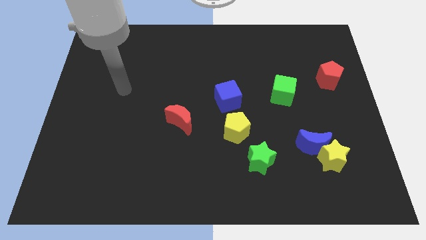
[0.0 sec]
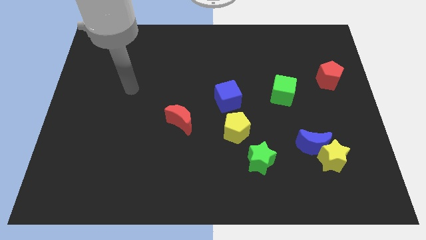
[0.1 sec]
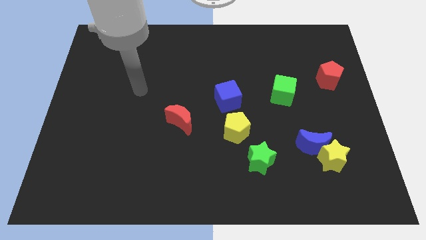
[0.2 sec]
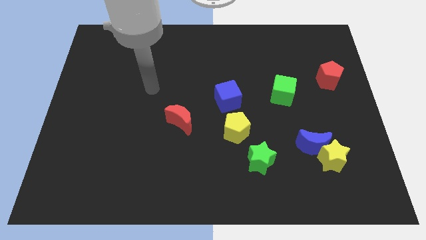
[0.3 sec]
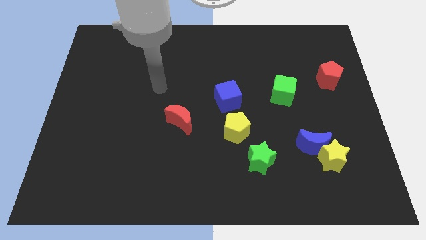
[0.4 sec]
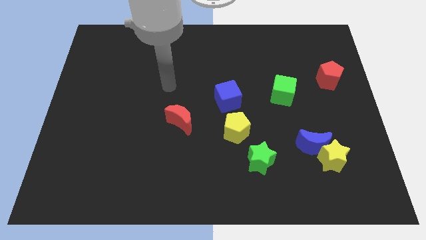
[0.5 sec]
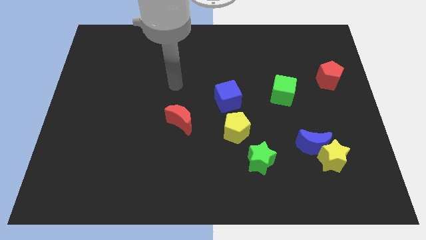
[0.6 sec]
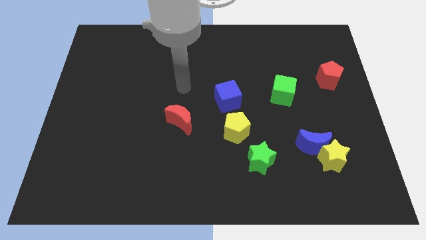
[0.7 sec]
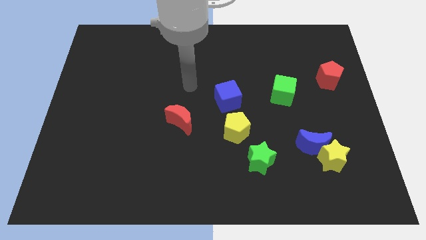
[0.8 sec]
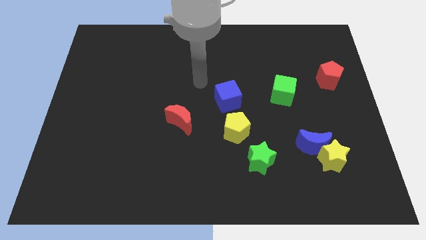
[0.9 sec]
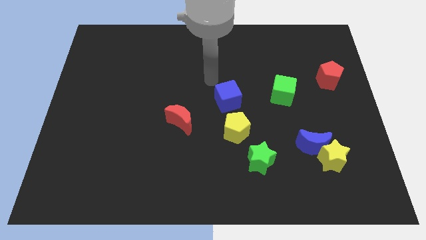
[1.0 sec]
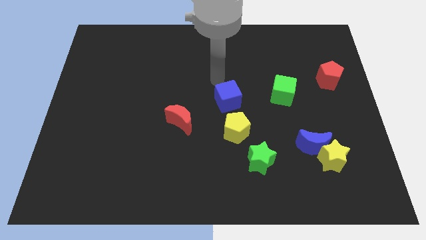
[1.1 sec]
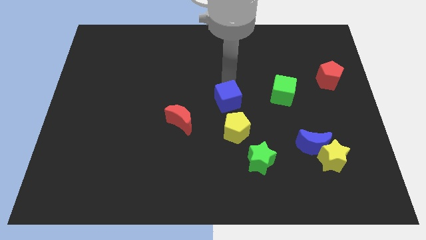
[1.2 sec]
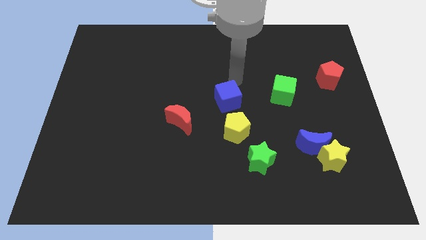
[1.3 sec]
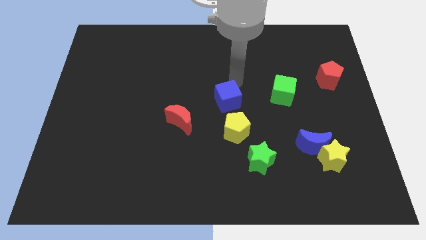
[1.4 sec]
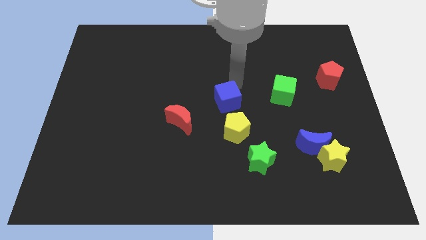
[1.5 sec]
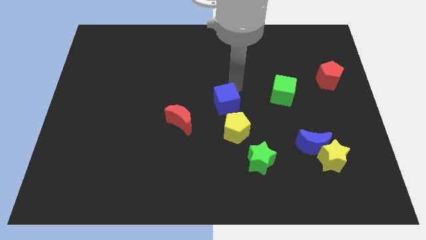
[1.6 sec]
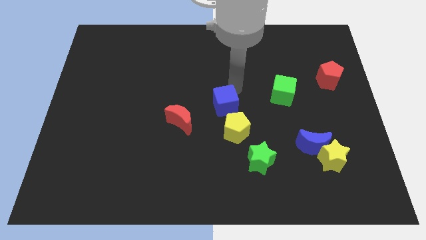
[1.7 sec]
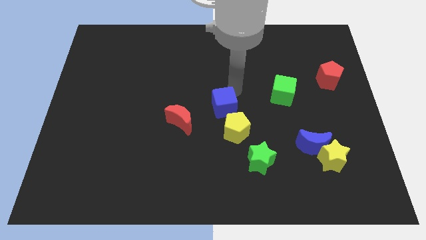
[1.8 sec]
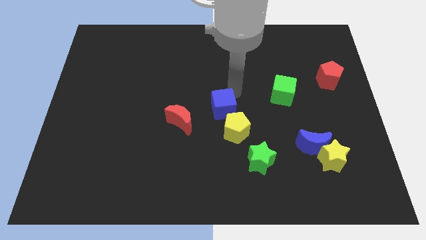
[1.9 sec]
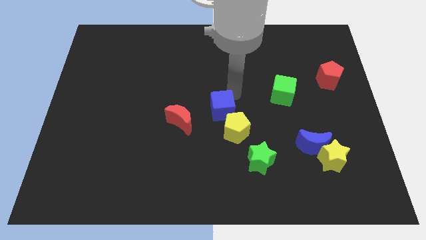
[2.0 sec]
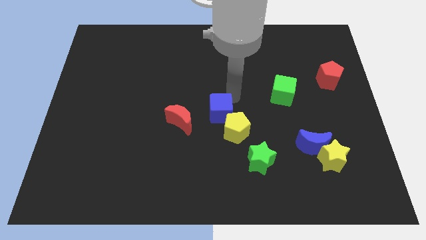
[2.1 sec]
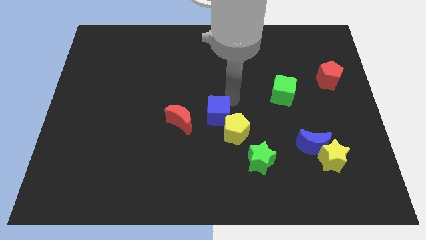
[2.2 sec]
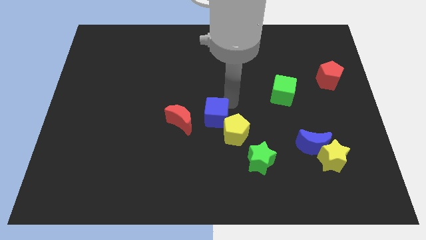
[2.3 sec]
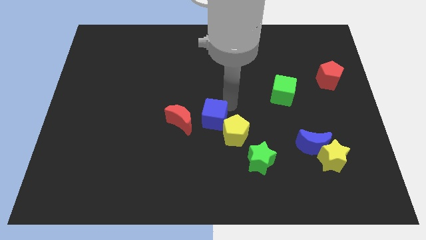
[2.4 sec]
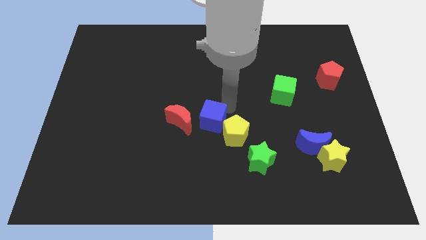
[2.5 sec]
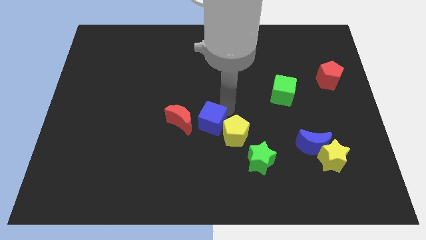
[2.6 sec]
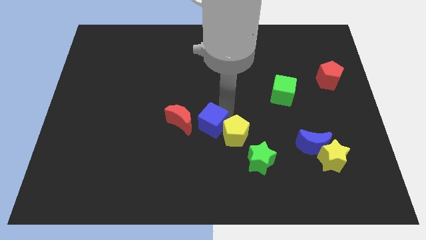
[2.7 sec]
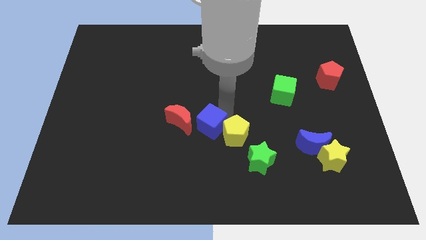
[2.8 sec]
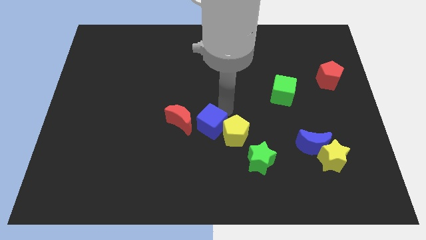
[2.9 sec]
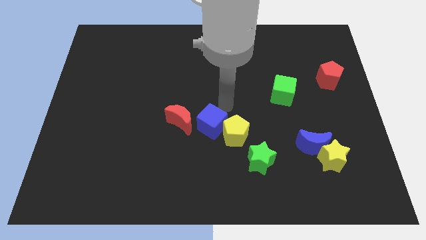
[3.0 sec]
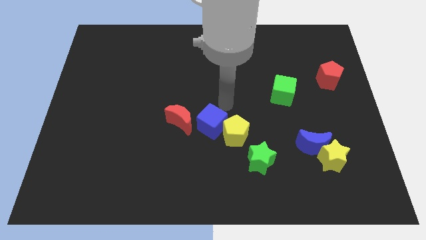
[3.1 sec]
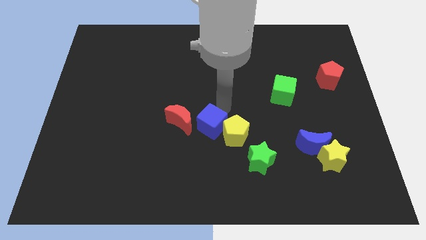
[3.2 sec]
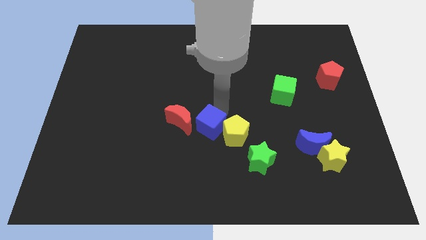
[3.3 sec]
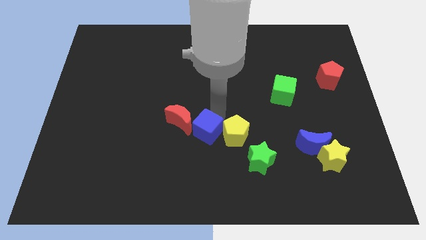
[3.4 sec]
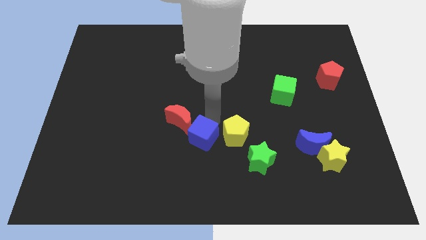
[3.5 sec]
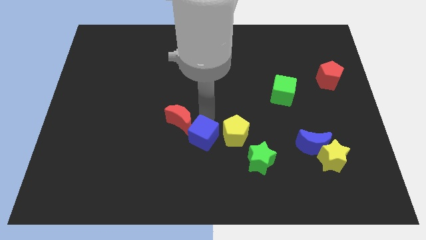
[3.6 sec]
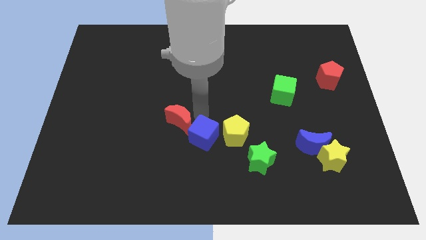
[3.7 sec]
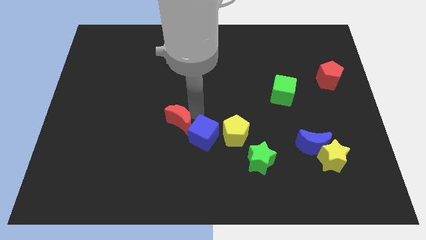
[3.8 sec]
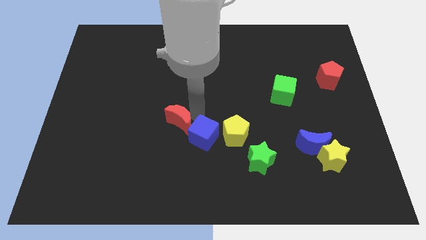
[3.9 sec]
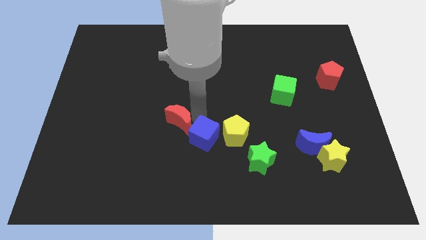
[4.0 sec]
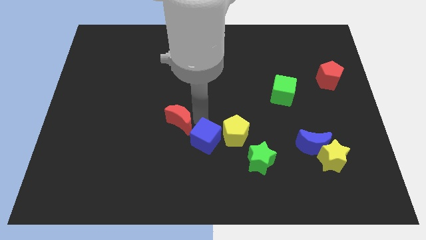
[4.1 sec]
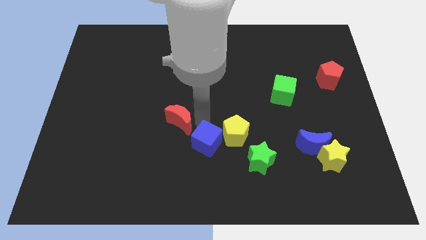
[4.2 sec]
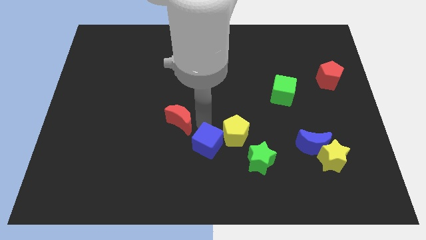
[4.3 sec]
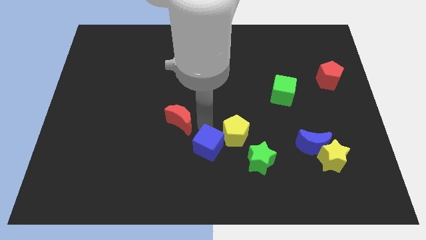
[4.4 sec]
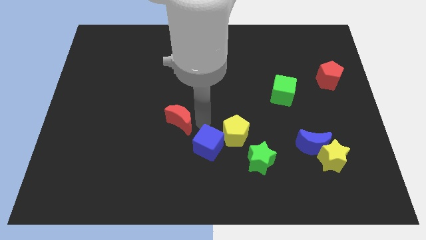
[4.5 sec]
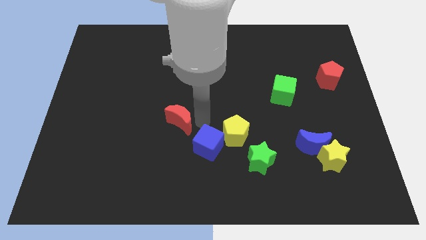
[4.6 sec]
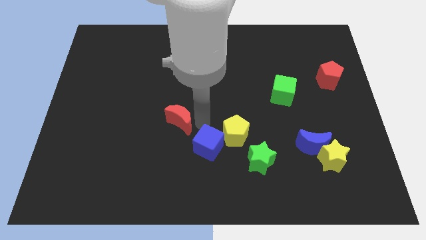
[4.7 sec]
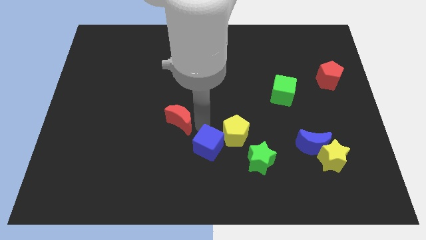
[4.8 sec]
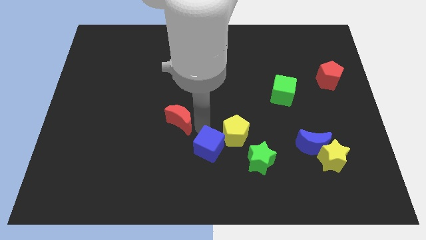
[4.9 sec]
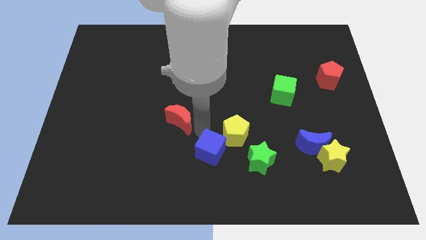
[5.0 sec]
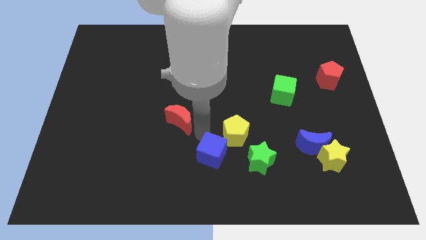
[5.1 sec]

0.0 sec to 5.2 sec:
put the blue cube to the bottom side

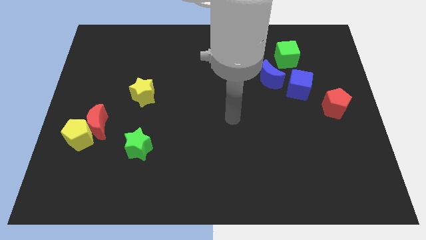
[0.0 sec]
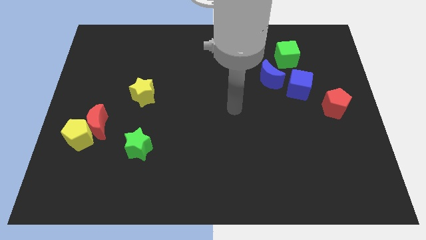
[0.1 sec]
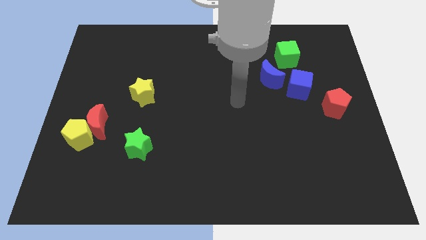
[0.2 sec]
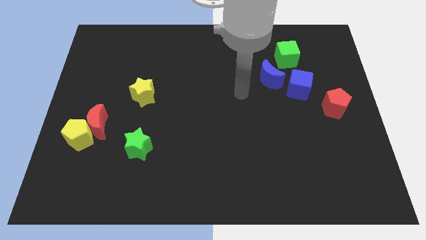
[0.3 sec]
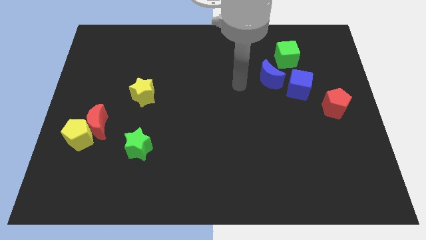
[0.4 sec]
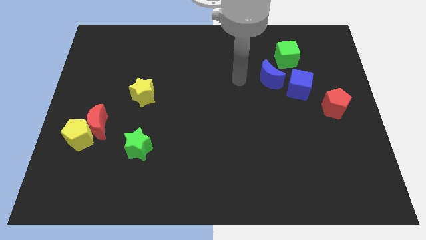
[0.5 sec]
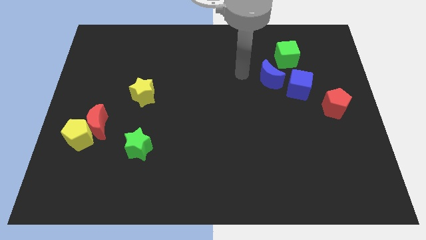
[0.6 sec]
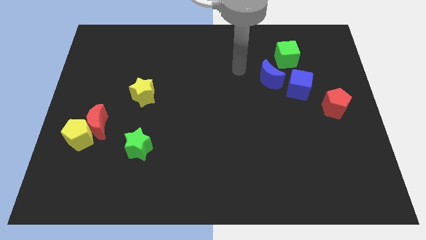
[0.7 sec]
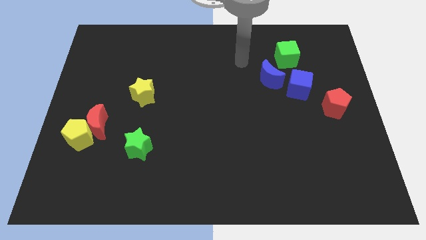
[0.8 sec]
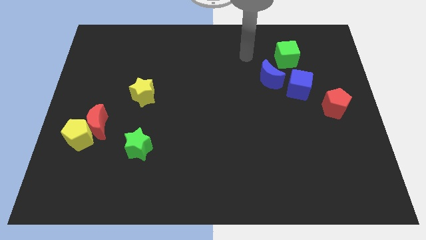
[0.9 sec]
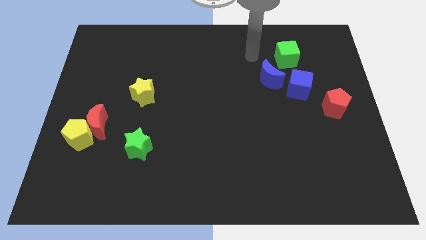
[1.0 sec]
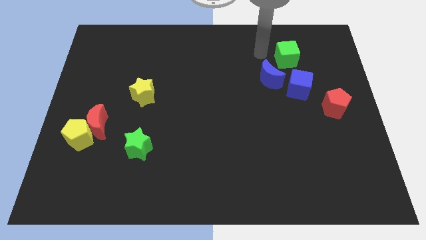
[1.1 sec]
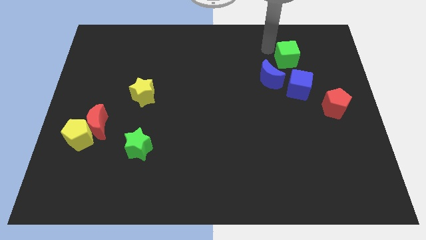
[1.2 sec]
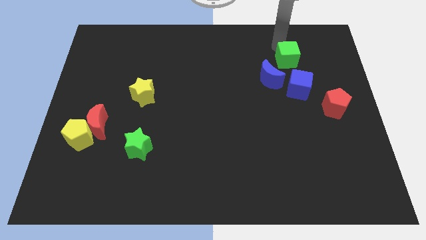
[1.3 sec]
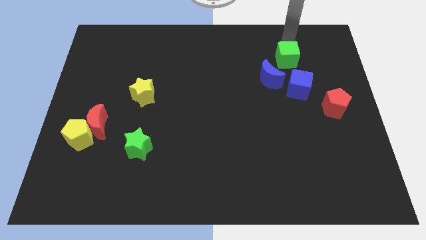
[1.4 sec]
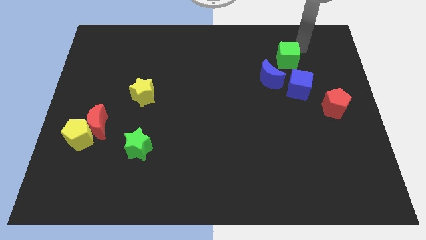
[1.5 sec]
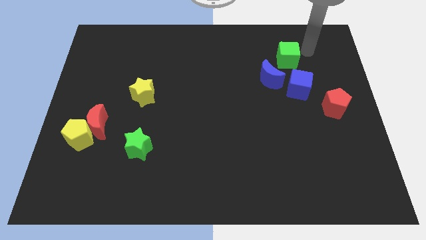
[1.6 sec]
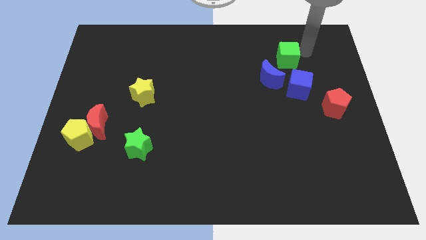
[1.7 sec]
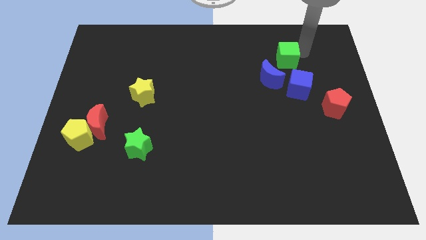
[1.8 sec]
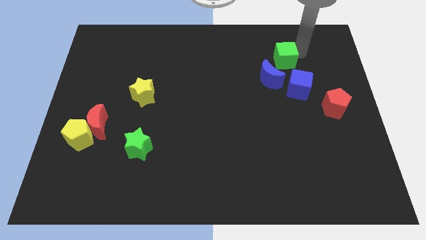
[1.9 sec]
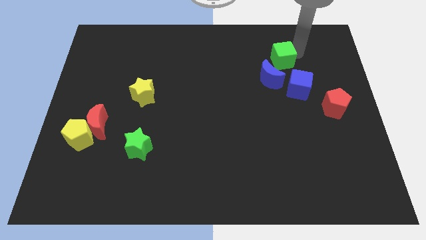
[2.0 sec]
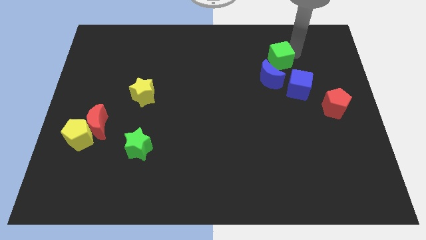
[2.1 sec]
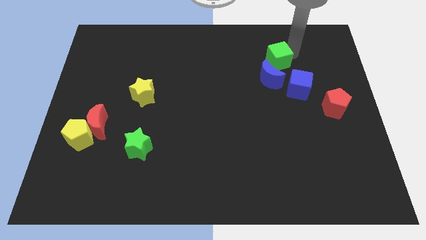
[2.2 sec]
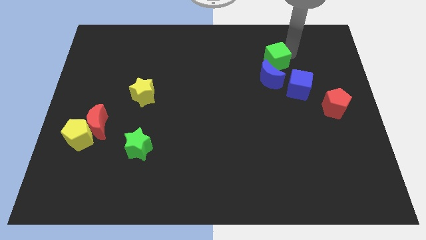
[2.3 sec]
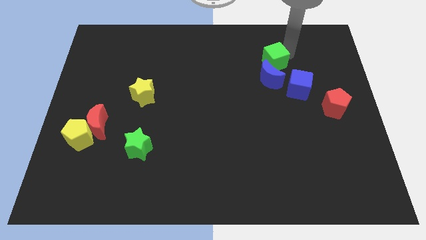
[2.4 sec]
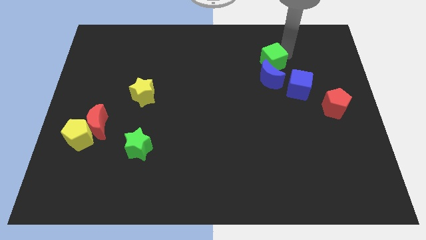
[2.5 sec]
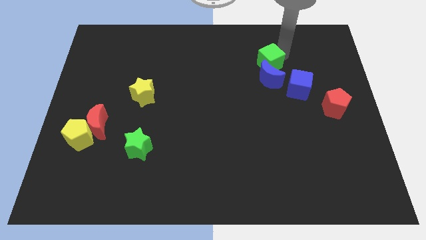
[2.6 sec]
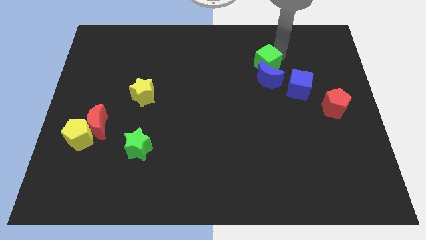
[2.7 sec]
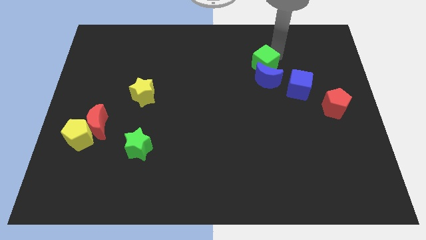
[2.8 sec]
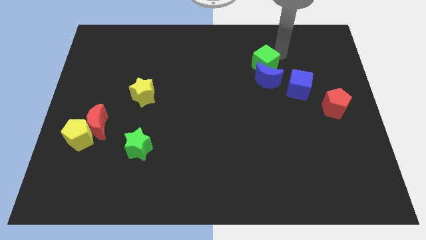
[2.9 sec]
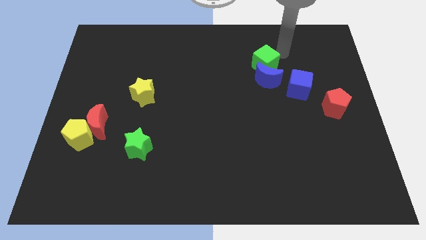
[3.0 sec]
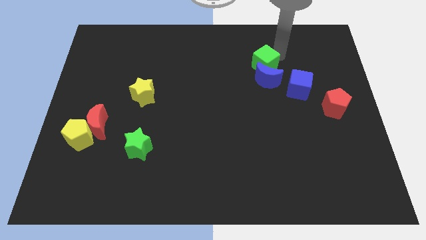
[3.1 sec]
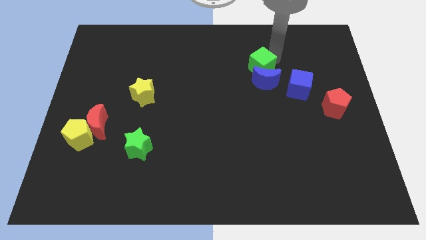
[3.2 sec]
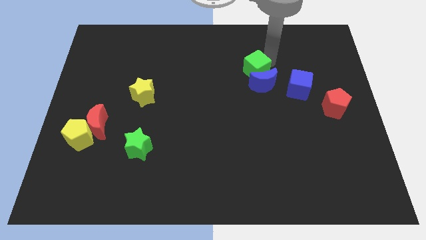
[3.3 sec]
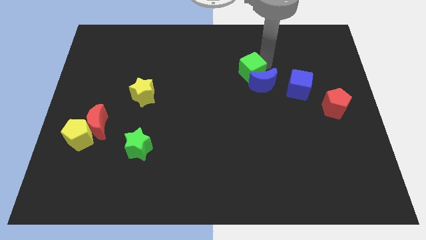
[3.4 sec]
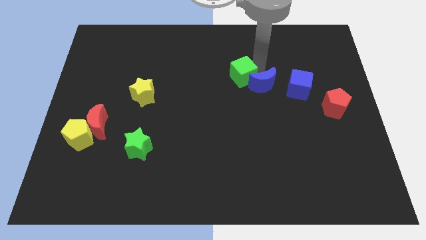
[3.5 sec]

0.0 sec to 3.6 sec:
put the green cube to the middle of the board
